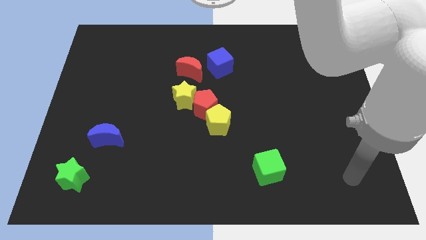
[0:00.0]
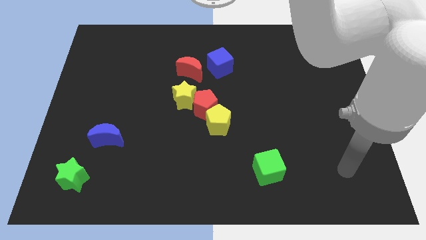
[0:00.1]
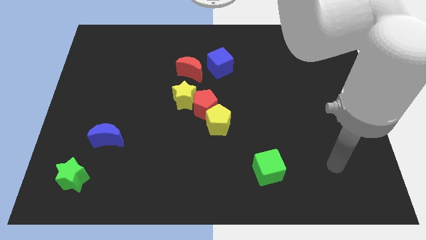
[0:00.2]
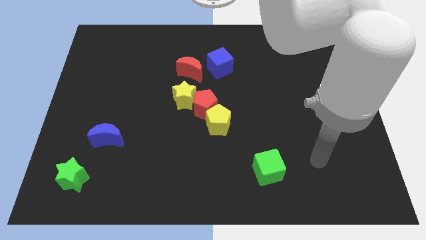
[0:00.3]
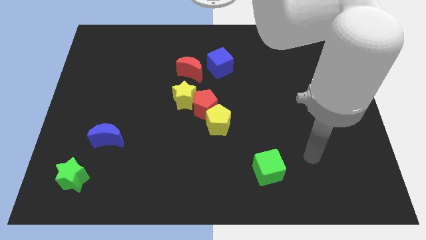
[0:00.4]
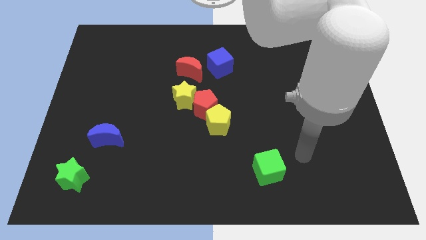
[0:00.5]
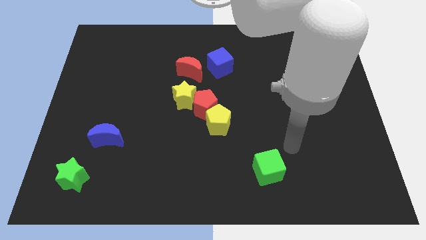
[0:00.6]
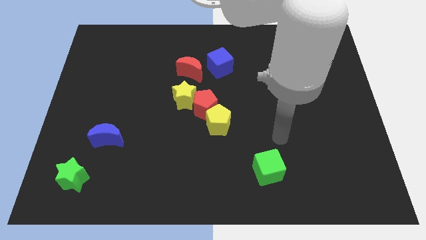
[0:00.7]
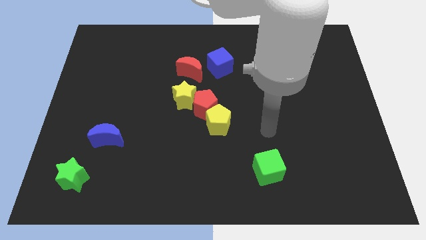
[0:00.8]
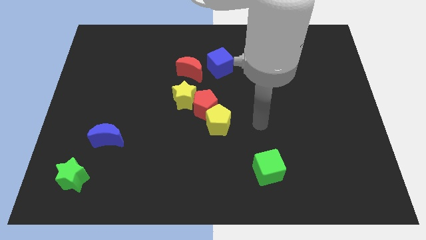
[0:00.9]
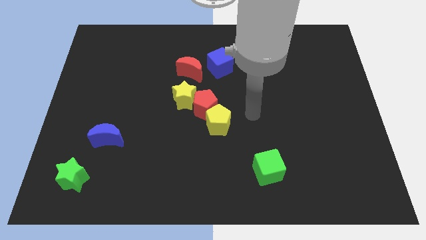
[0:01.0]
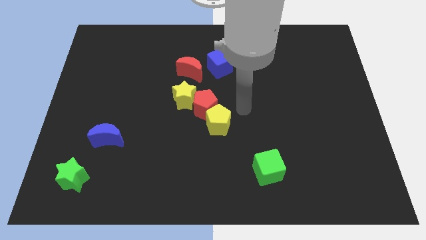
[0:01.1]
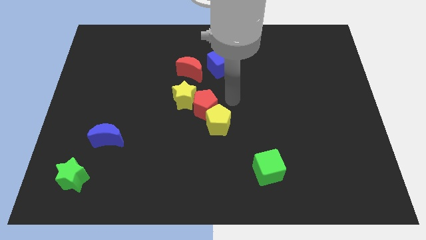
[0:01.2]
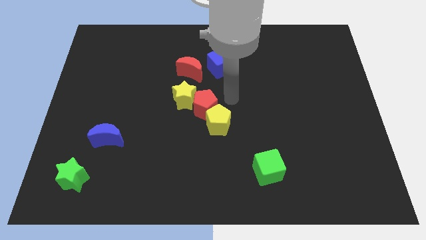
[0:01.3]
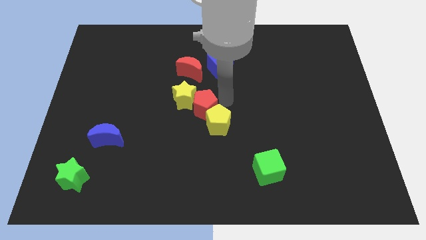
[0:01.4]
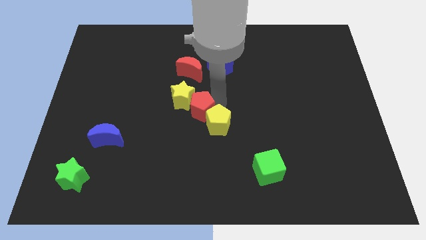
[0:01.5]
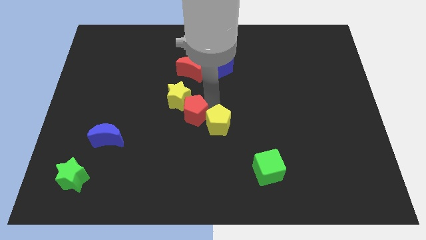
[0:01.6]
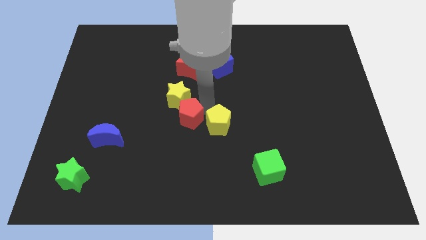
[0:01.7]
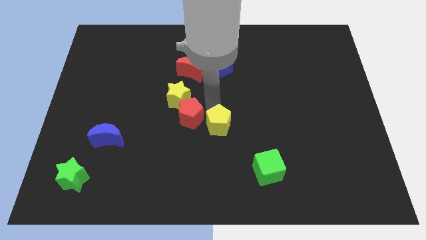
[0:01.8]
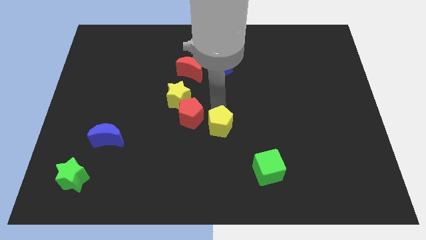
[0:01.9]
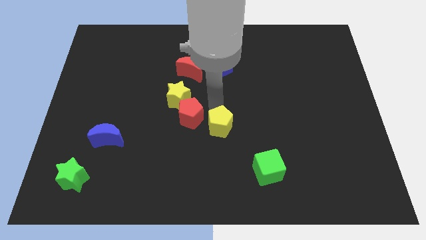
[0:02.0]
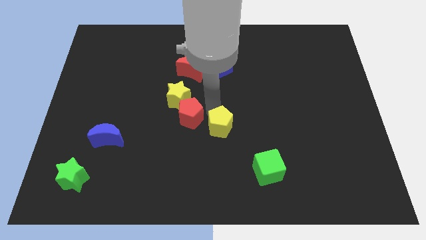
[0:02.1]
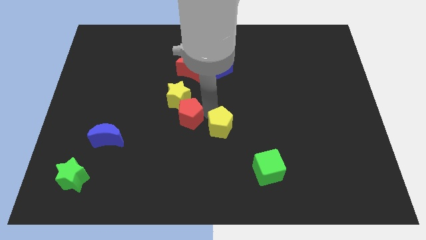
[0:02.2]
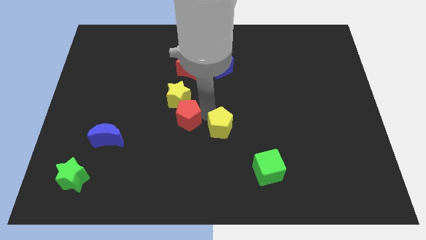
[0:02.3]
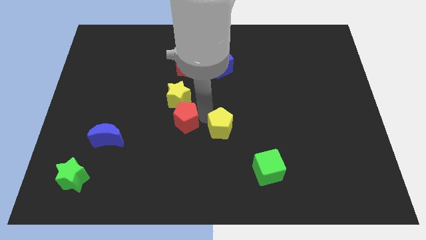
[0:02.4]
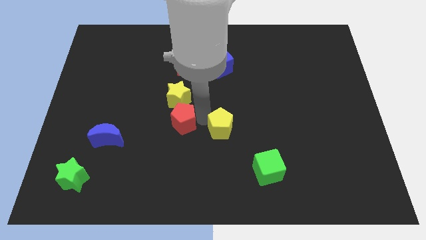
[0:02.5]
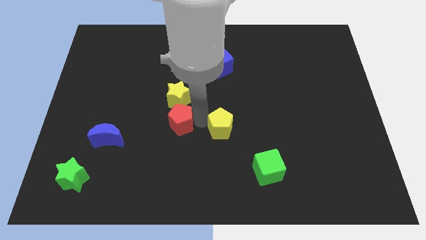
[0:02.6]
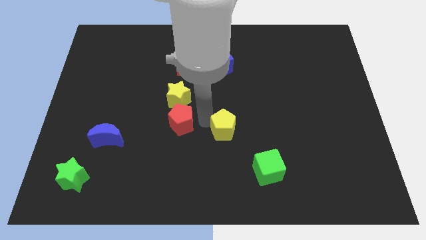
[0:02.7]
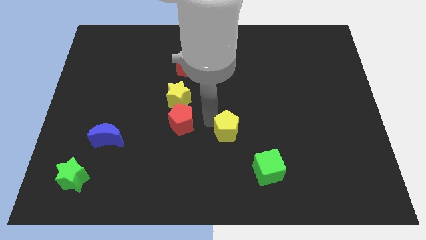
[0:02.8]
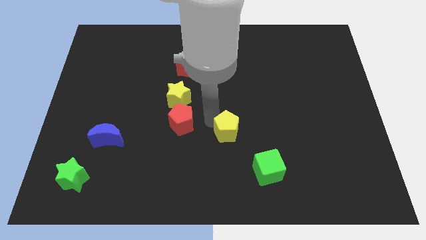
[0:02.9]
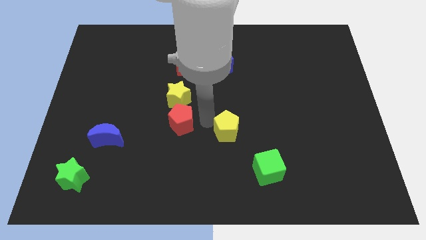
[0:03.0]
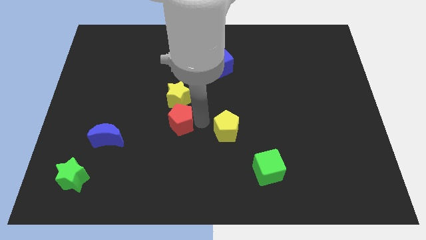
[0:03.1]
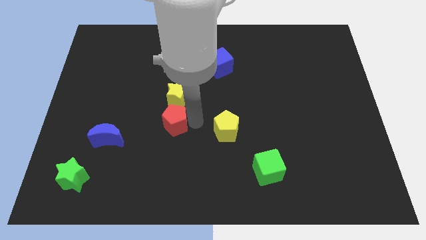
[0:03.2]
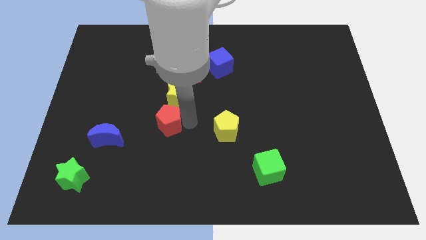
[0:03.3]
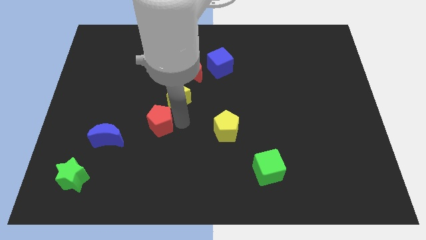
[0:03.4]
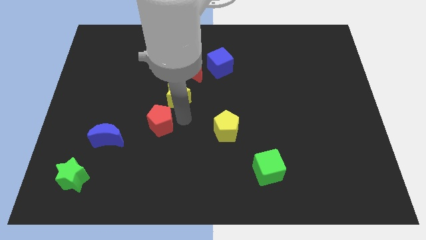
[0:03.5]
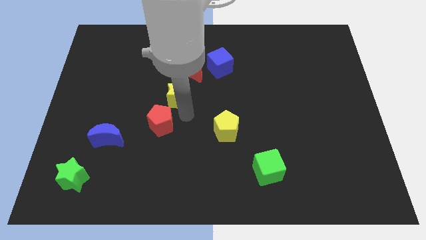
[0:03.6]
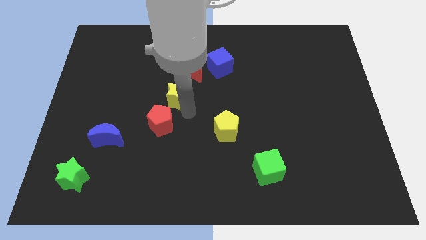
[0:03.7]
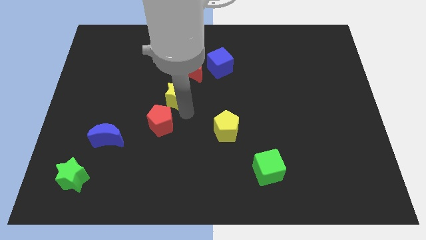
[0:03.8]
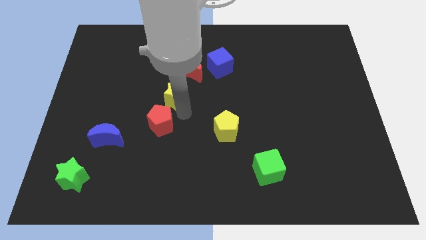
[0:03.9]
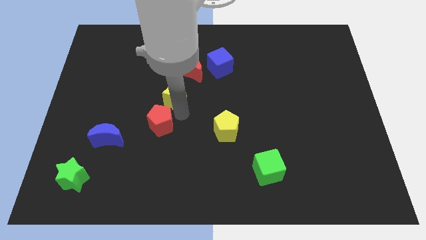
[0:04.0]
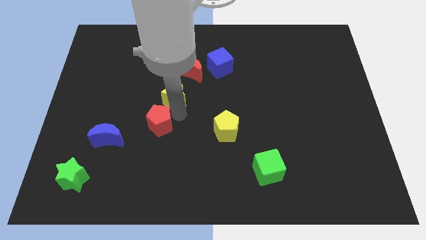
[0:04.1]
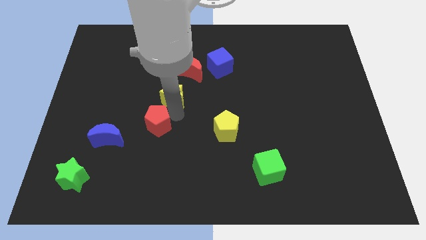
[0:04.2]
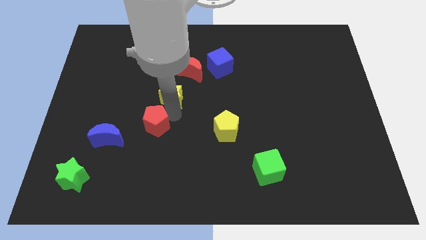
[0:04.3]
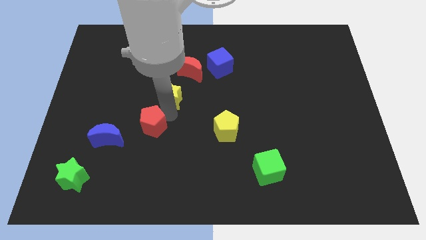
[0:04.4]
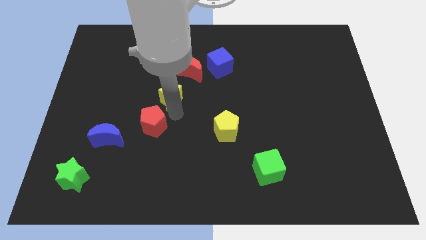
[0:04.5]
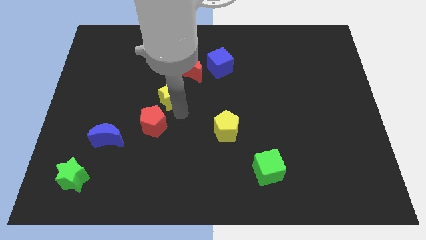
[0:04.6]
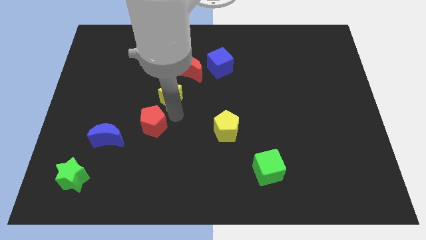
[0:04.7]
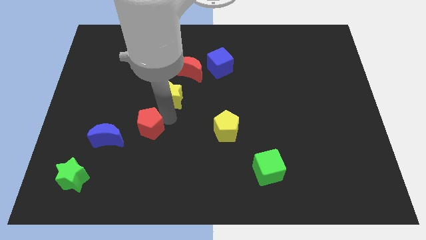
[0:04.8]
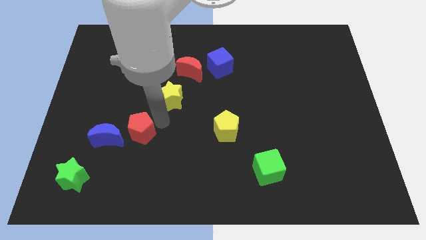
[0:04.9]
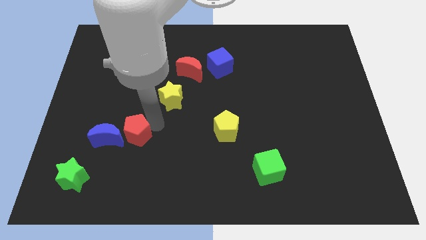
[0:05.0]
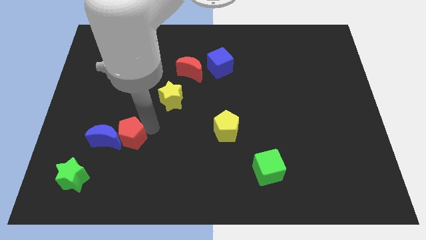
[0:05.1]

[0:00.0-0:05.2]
slide the red pentagon close to the blue moon

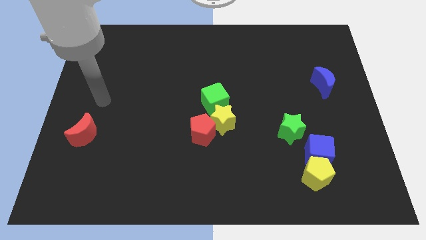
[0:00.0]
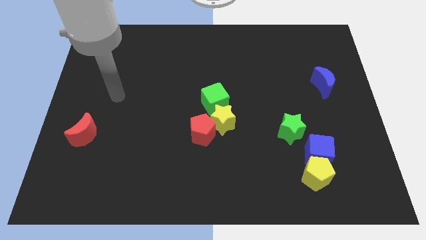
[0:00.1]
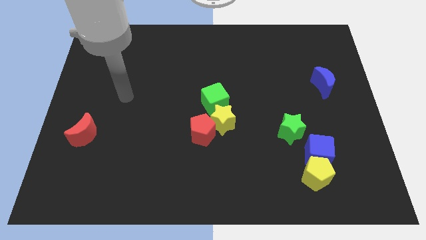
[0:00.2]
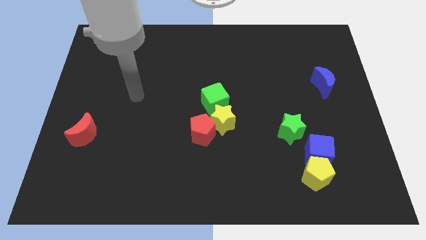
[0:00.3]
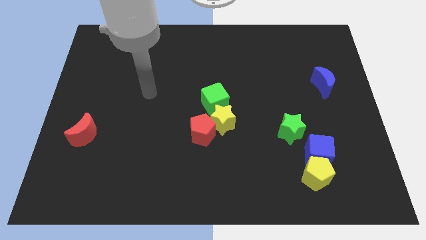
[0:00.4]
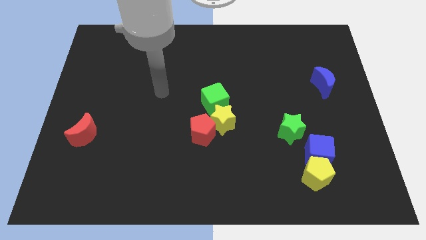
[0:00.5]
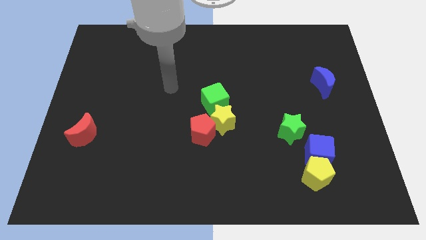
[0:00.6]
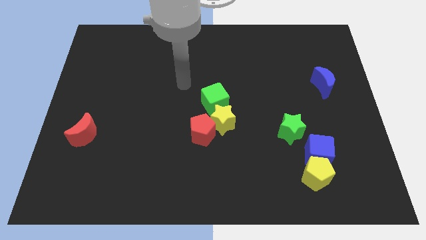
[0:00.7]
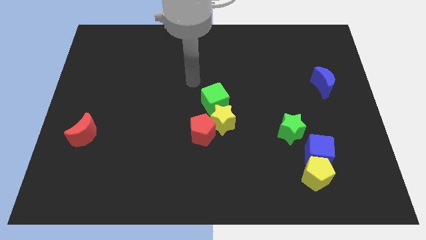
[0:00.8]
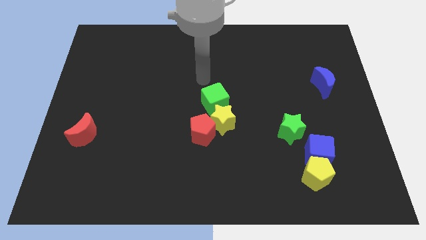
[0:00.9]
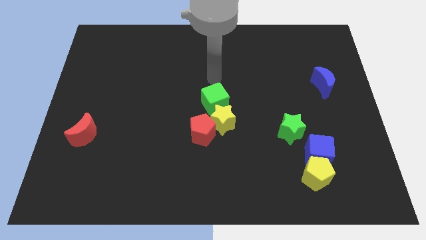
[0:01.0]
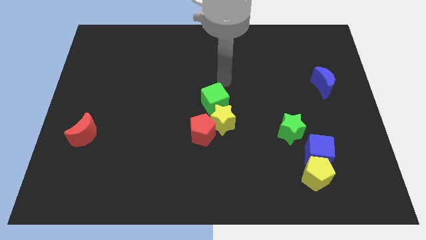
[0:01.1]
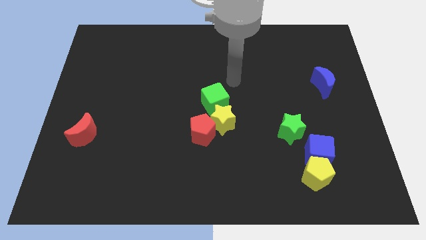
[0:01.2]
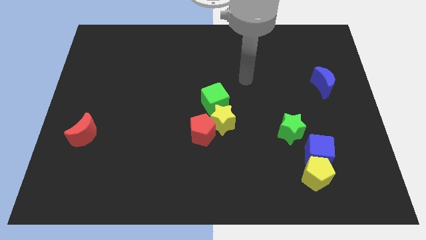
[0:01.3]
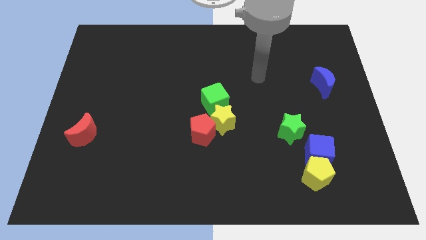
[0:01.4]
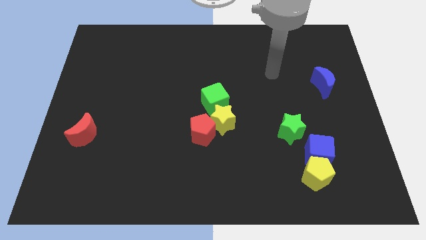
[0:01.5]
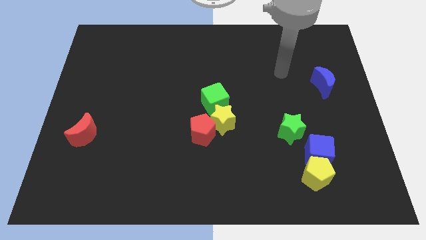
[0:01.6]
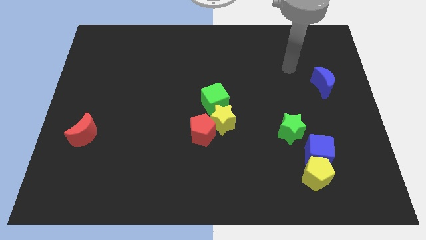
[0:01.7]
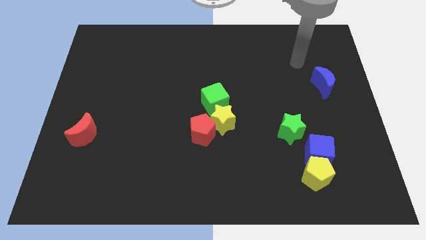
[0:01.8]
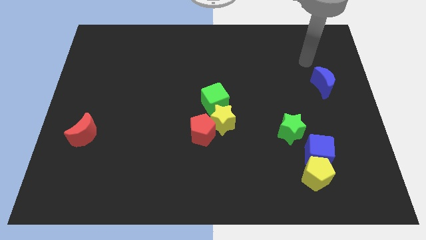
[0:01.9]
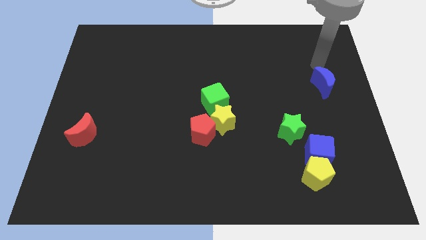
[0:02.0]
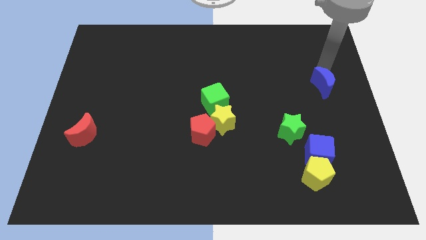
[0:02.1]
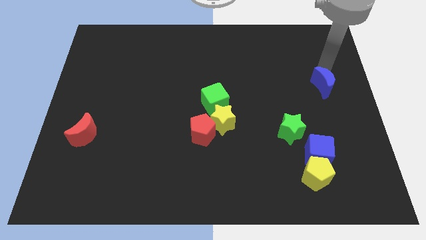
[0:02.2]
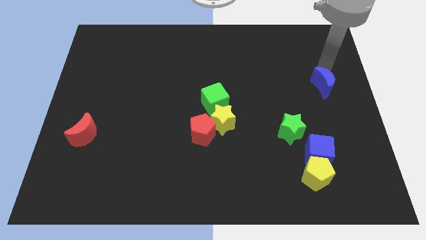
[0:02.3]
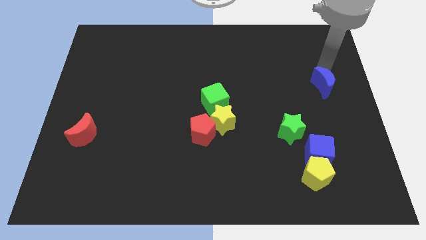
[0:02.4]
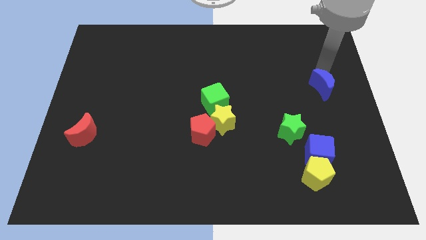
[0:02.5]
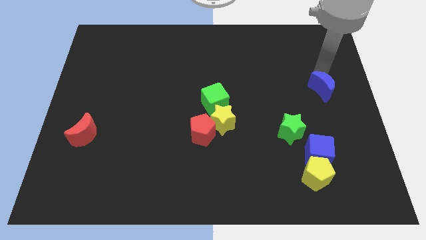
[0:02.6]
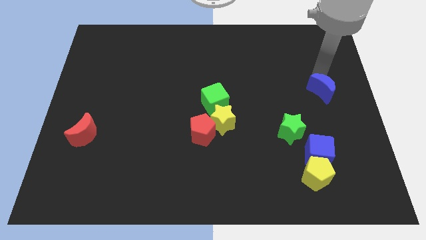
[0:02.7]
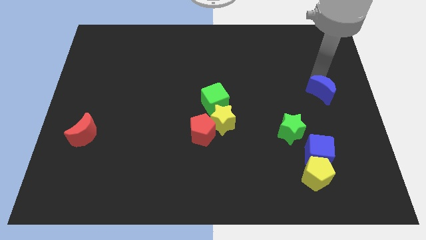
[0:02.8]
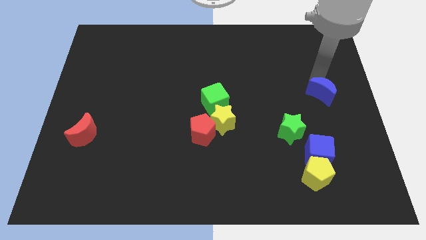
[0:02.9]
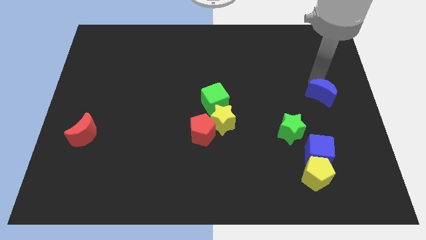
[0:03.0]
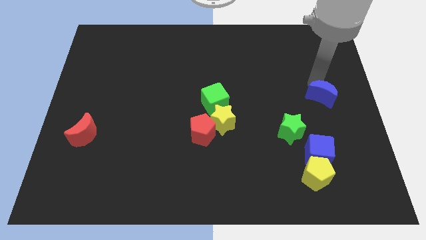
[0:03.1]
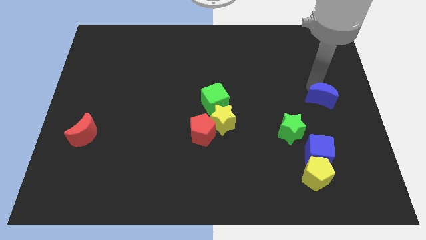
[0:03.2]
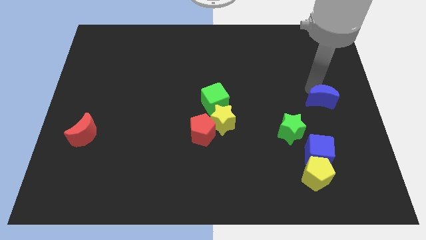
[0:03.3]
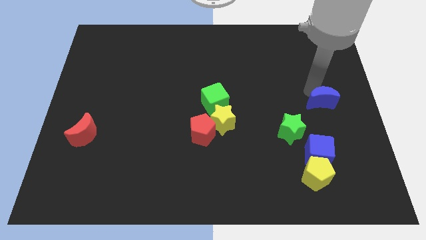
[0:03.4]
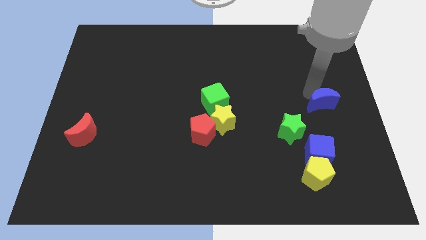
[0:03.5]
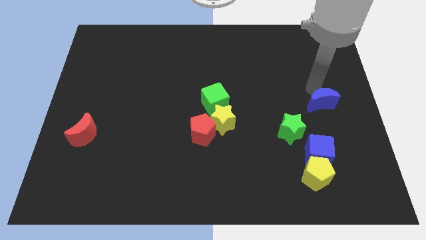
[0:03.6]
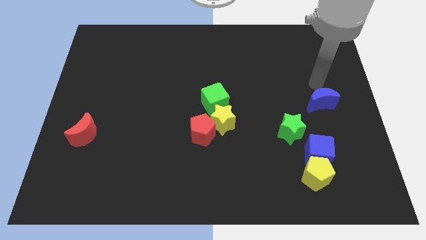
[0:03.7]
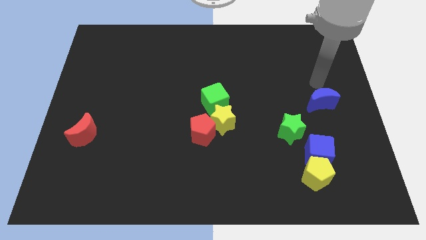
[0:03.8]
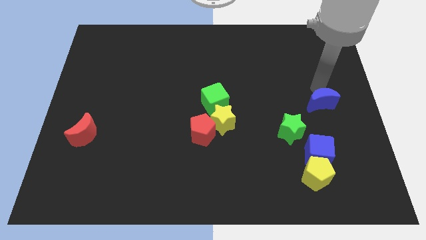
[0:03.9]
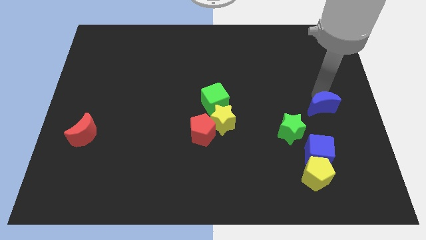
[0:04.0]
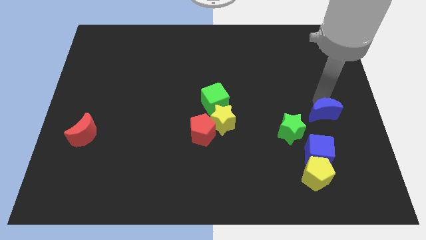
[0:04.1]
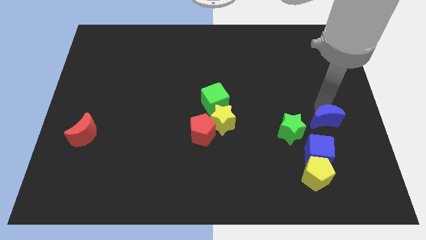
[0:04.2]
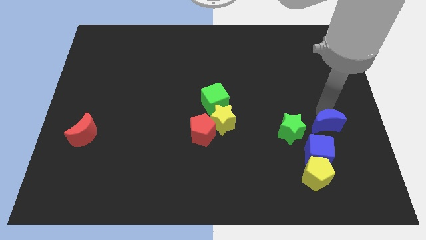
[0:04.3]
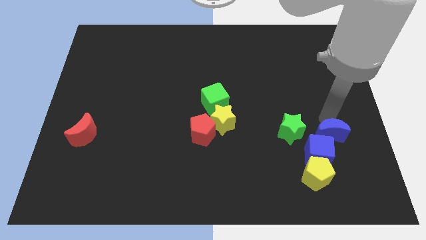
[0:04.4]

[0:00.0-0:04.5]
push the blue moon next to the blue cube
